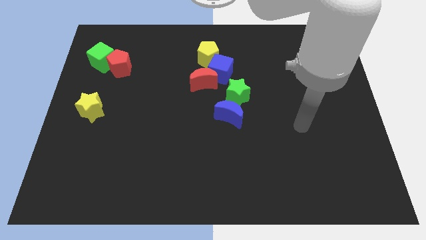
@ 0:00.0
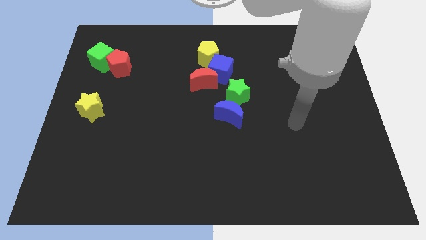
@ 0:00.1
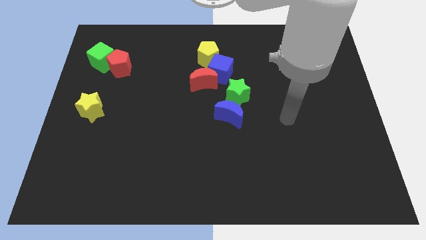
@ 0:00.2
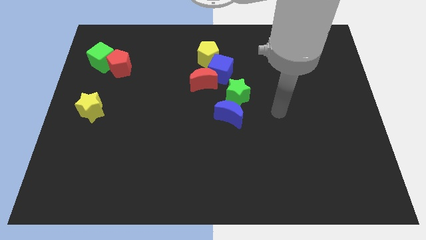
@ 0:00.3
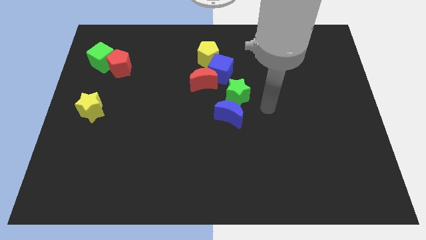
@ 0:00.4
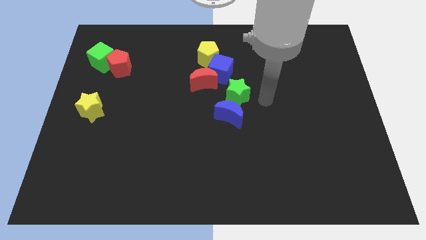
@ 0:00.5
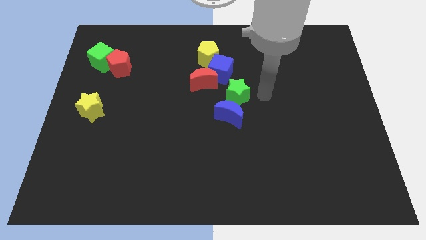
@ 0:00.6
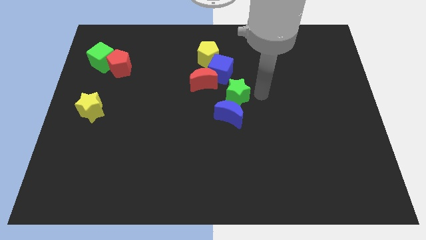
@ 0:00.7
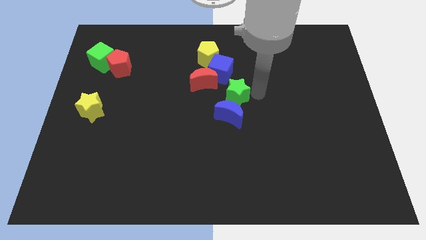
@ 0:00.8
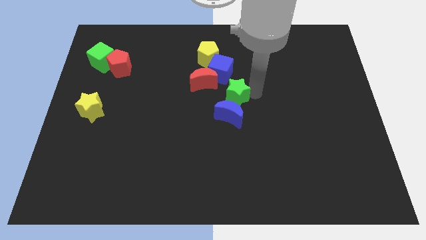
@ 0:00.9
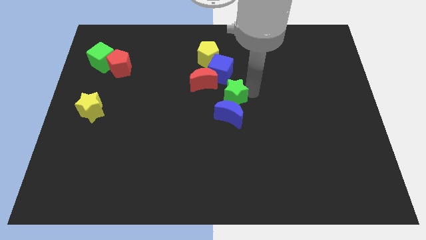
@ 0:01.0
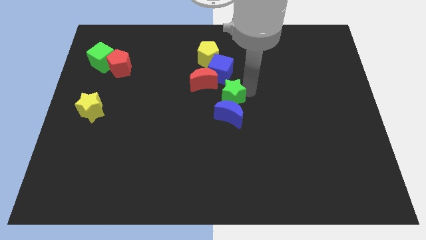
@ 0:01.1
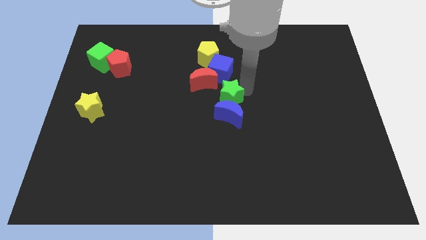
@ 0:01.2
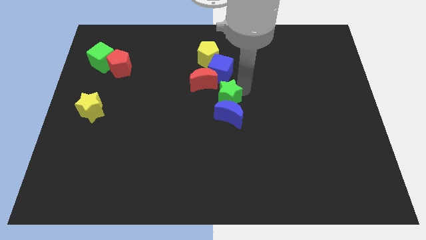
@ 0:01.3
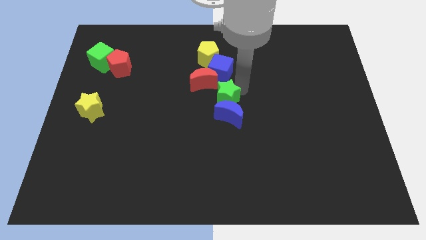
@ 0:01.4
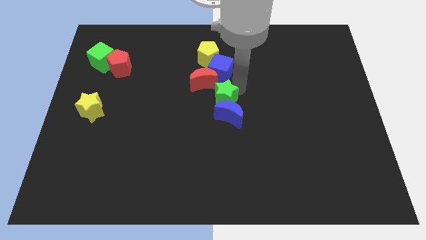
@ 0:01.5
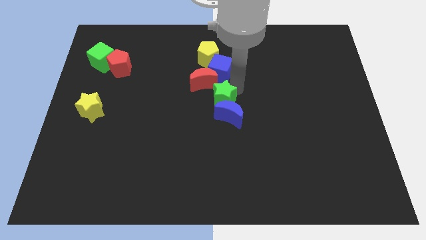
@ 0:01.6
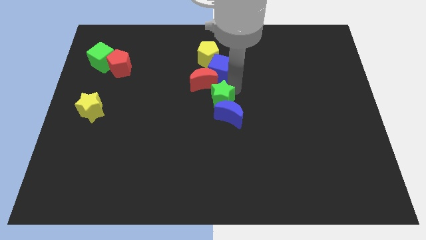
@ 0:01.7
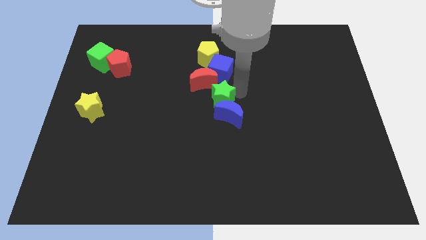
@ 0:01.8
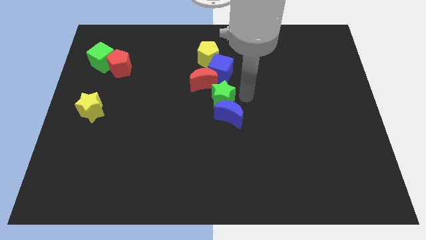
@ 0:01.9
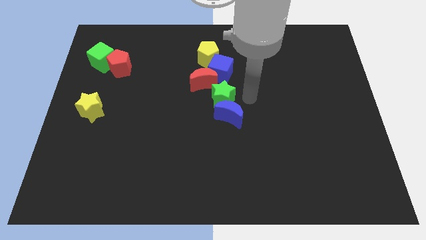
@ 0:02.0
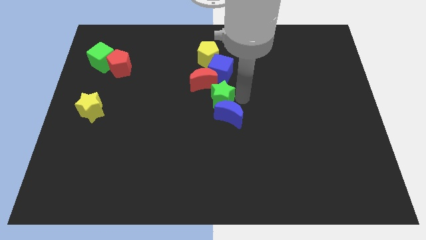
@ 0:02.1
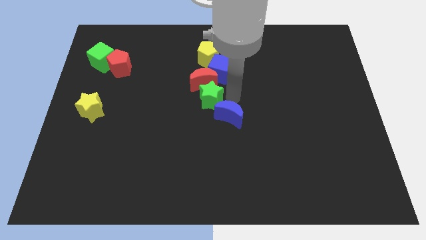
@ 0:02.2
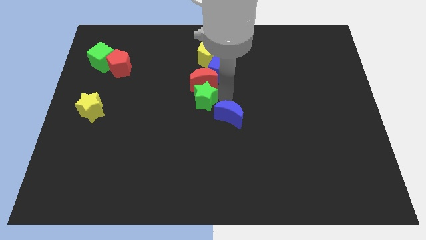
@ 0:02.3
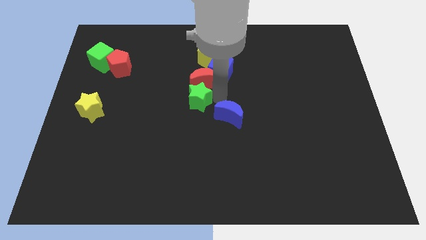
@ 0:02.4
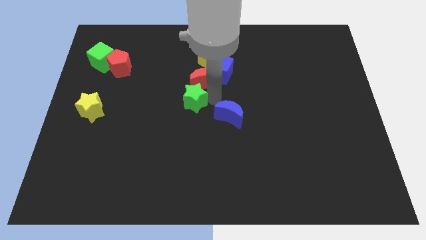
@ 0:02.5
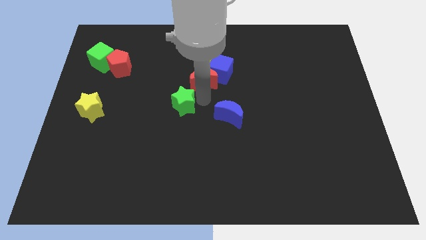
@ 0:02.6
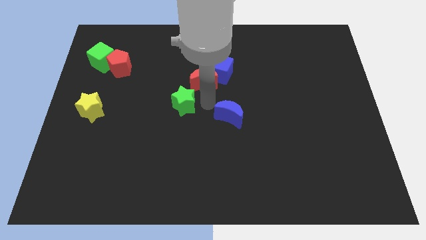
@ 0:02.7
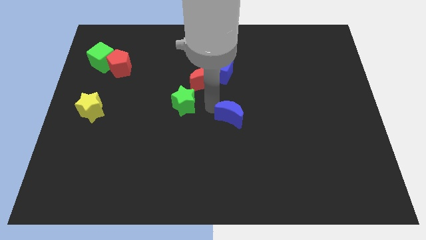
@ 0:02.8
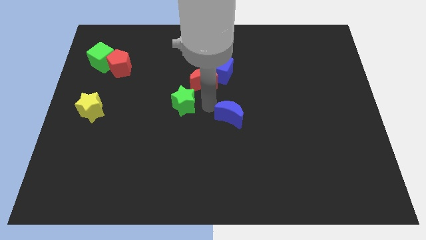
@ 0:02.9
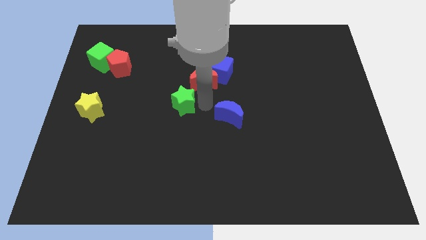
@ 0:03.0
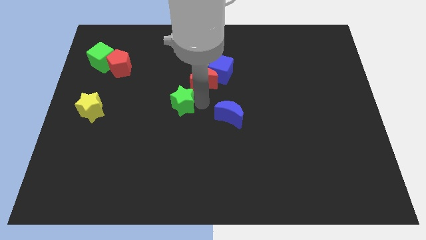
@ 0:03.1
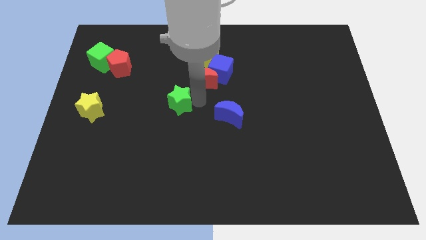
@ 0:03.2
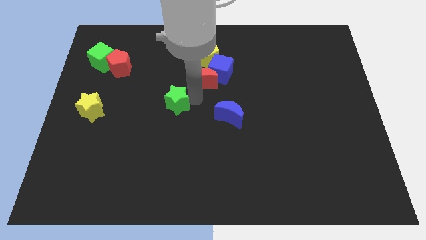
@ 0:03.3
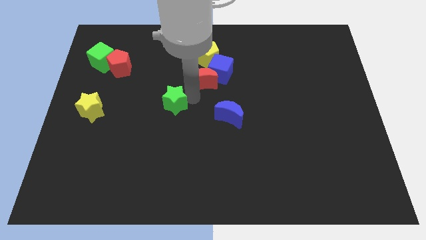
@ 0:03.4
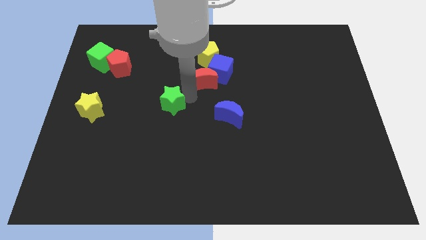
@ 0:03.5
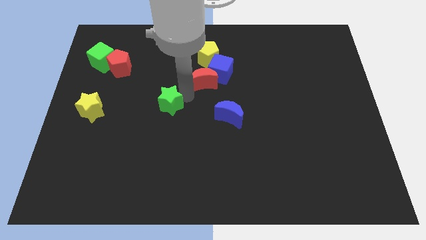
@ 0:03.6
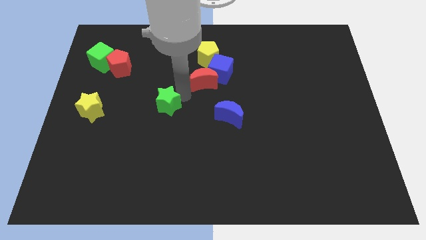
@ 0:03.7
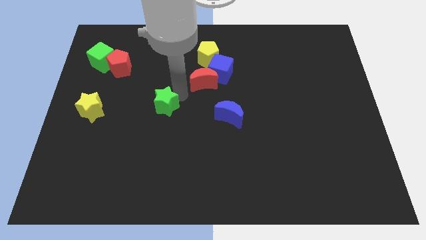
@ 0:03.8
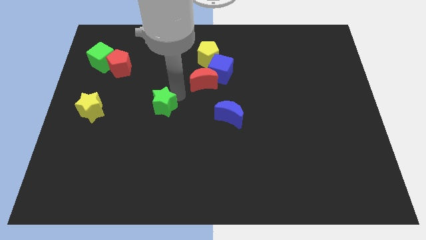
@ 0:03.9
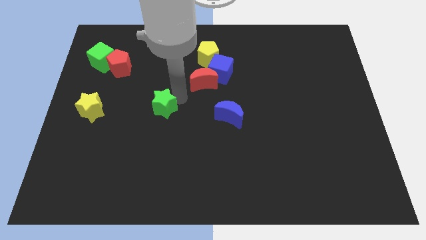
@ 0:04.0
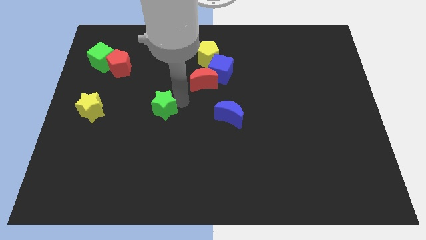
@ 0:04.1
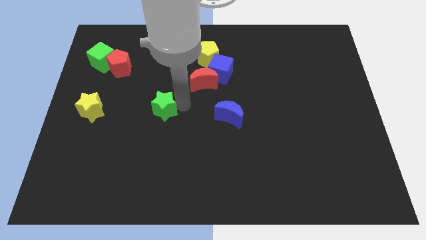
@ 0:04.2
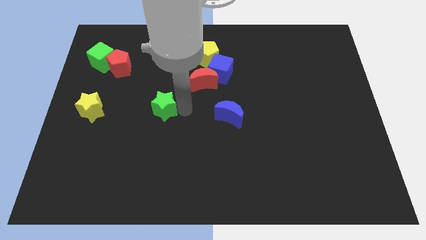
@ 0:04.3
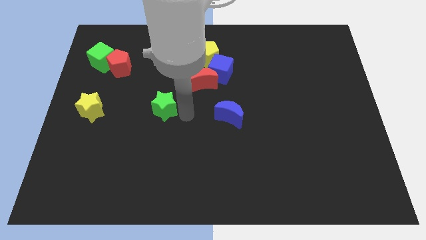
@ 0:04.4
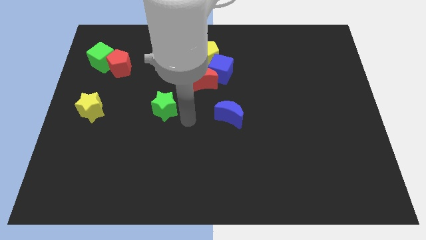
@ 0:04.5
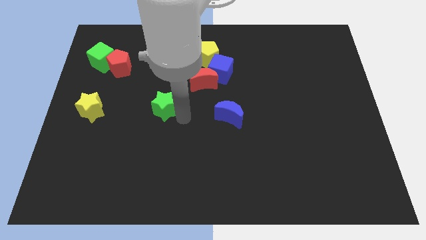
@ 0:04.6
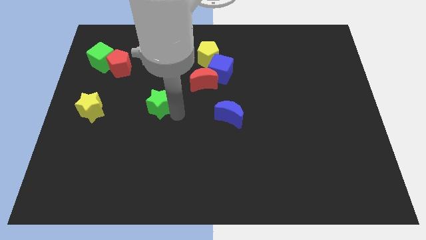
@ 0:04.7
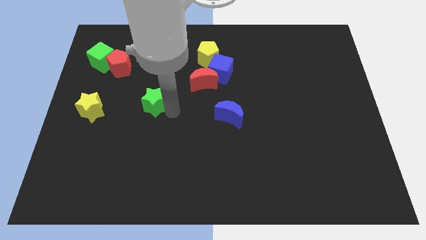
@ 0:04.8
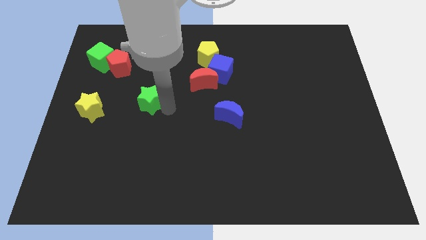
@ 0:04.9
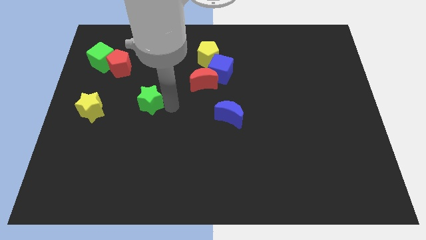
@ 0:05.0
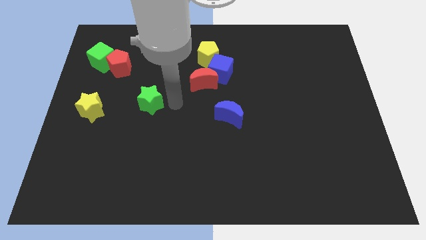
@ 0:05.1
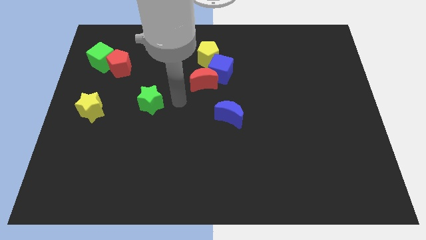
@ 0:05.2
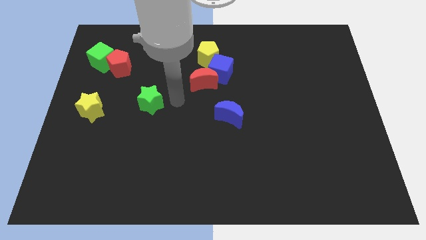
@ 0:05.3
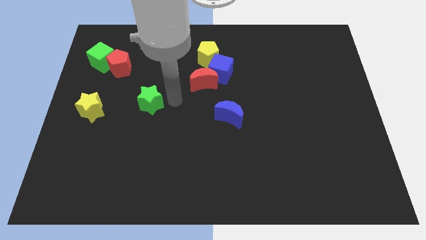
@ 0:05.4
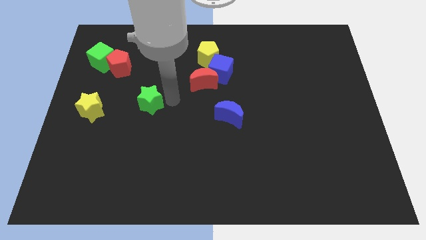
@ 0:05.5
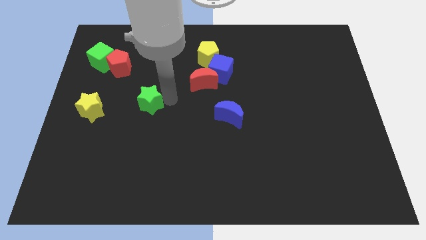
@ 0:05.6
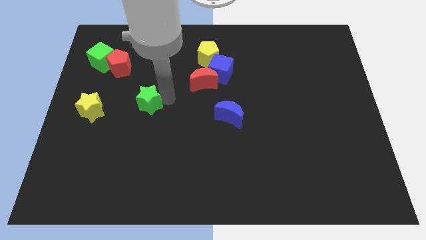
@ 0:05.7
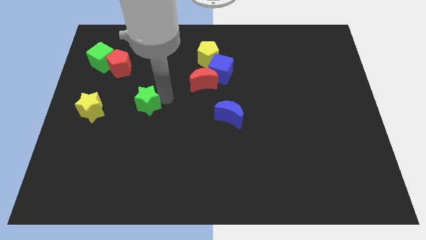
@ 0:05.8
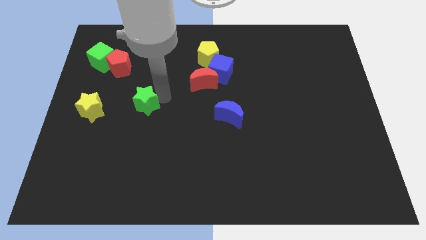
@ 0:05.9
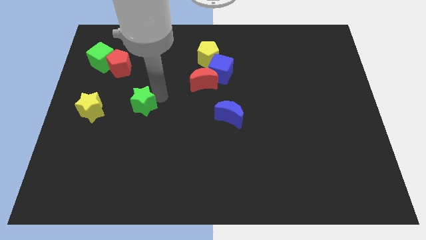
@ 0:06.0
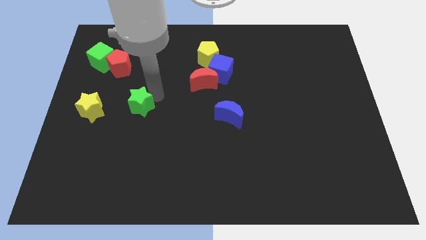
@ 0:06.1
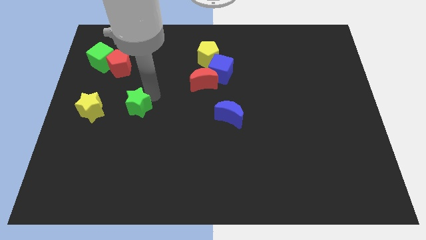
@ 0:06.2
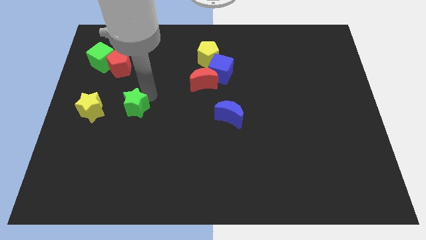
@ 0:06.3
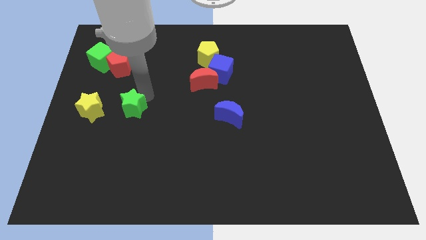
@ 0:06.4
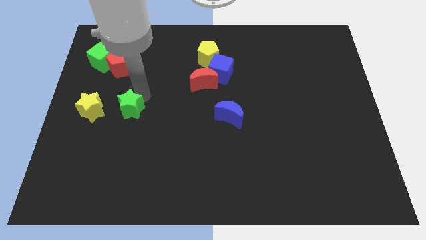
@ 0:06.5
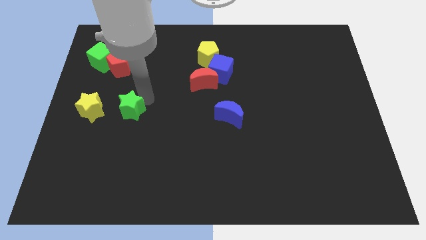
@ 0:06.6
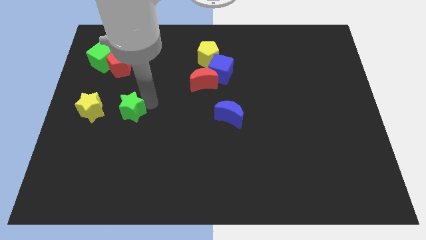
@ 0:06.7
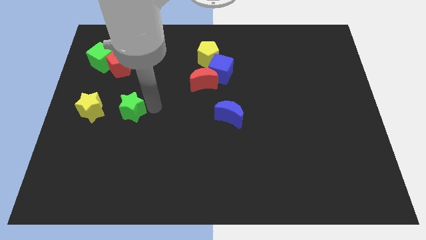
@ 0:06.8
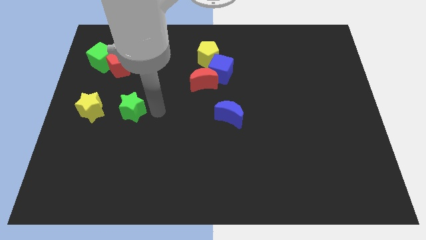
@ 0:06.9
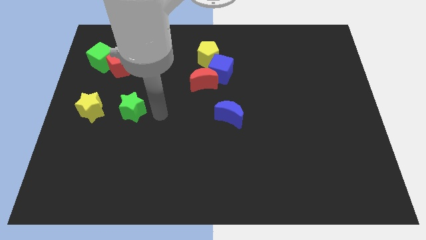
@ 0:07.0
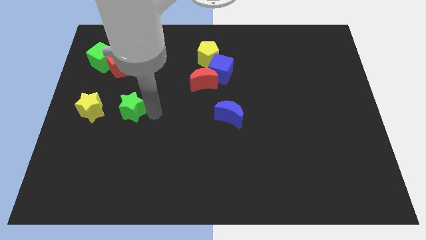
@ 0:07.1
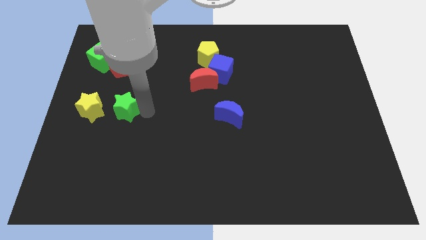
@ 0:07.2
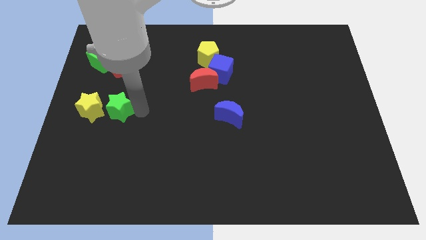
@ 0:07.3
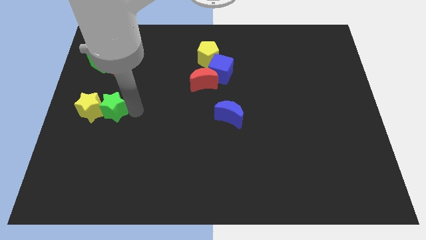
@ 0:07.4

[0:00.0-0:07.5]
move the green star towards the yellow star

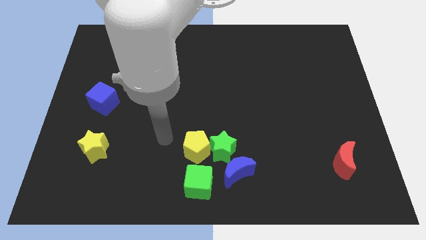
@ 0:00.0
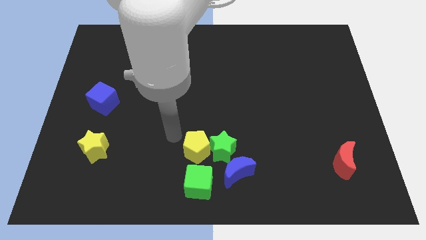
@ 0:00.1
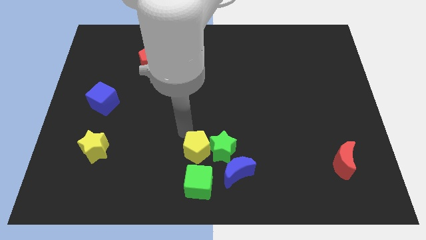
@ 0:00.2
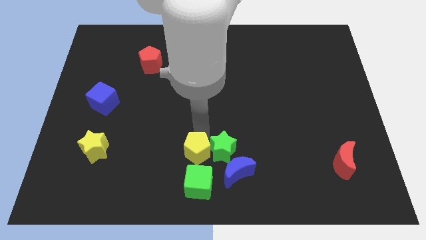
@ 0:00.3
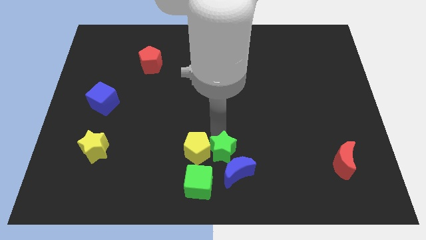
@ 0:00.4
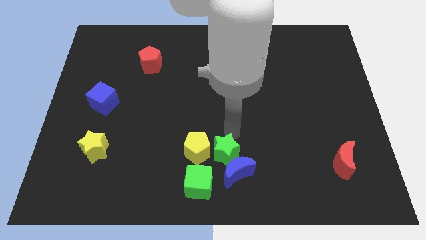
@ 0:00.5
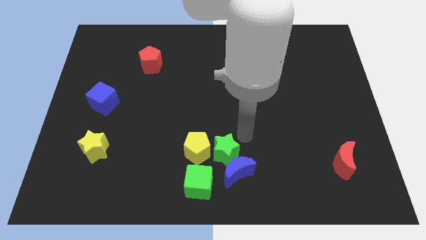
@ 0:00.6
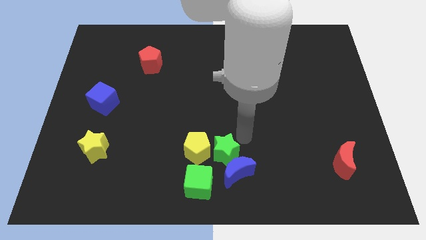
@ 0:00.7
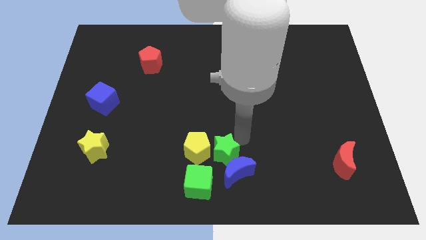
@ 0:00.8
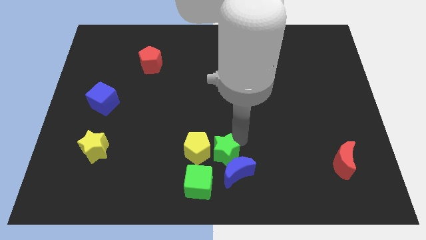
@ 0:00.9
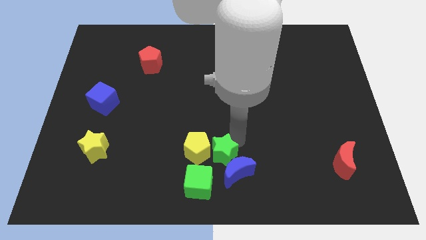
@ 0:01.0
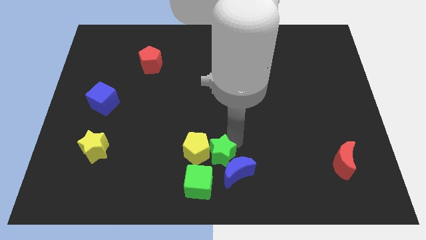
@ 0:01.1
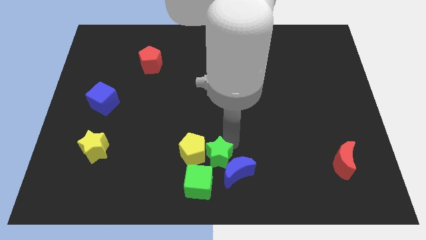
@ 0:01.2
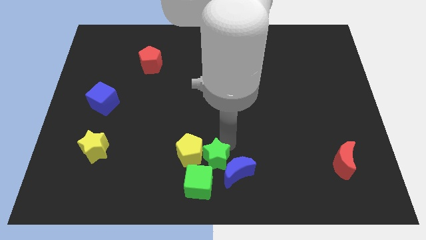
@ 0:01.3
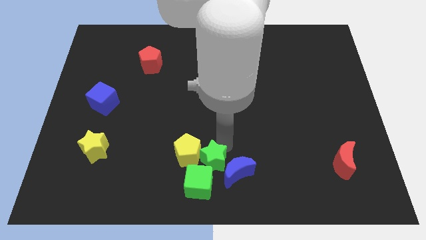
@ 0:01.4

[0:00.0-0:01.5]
move the green star towards the green cube
